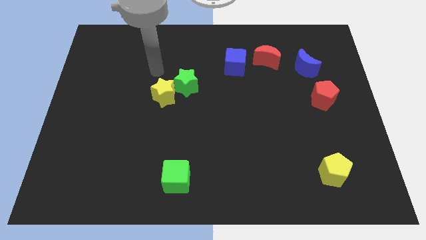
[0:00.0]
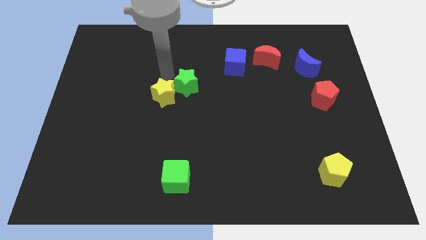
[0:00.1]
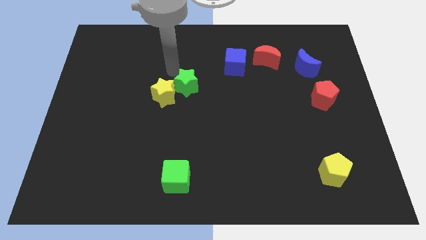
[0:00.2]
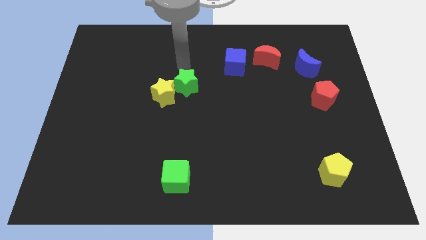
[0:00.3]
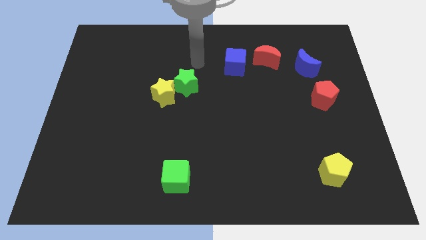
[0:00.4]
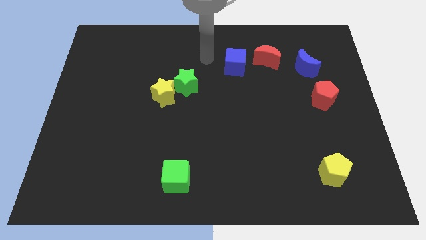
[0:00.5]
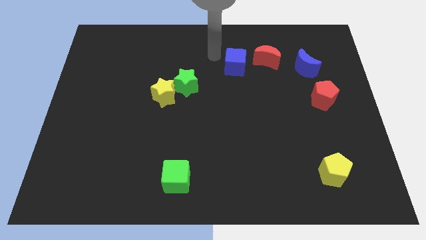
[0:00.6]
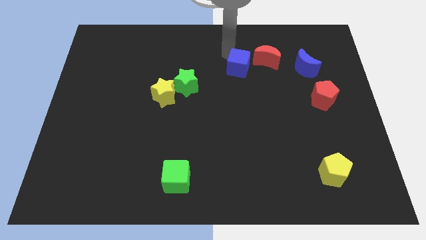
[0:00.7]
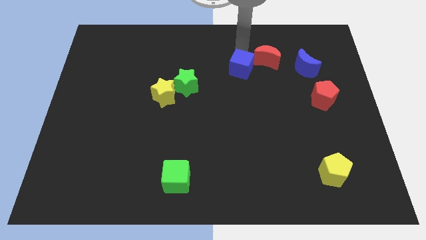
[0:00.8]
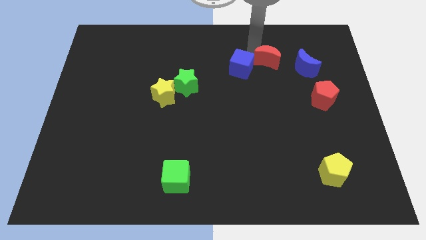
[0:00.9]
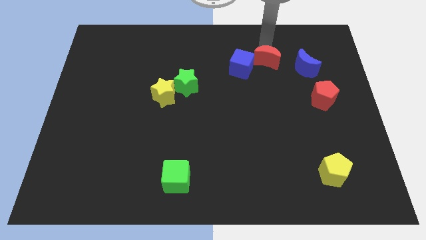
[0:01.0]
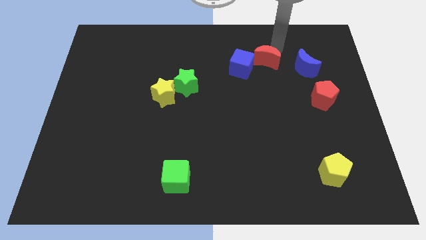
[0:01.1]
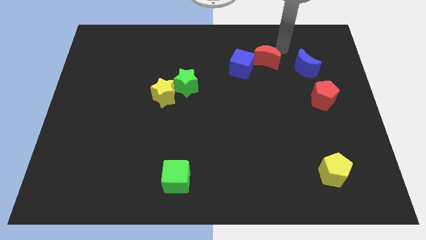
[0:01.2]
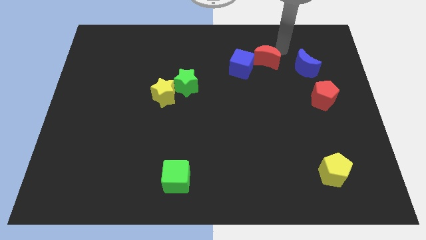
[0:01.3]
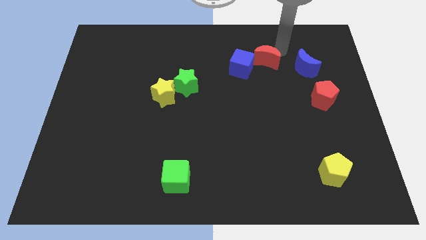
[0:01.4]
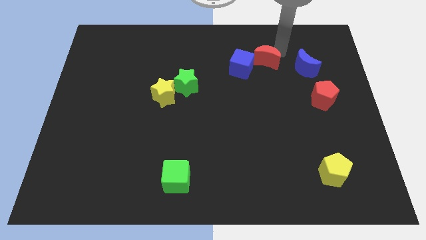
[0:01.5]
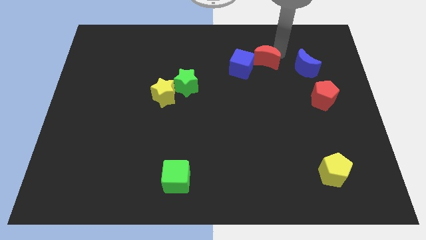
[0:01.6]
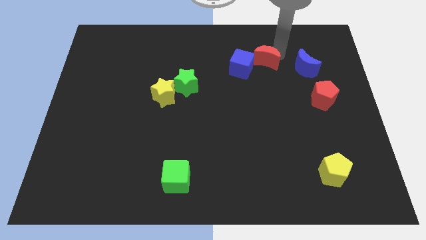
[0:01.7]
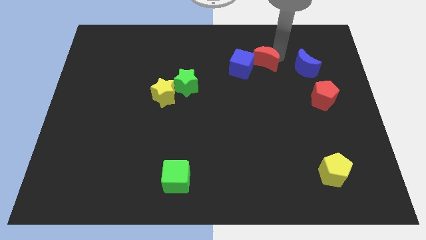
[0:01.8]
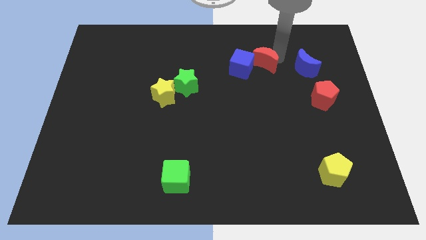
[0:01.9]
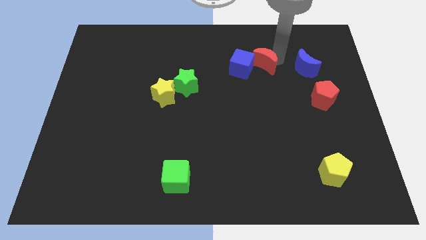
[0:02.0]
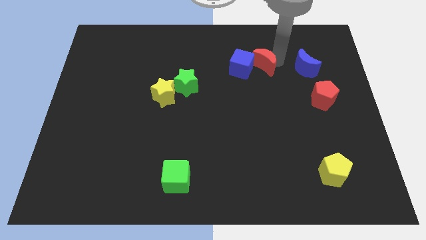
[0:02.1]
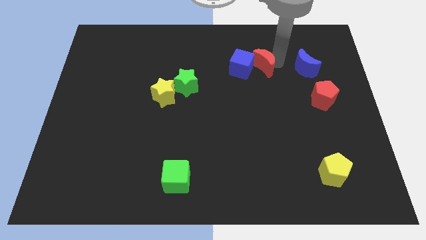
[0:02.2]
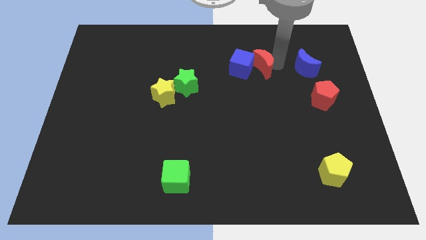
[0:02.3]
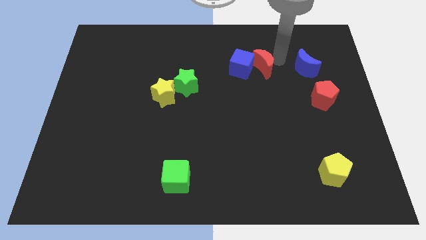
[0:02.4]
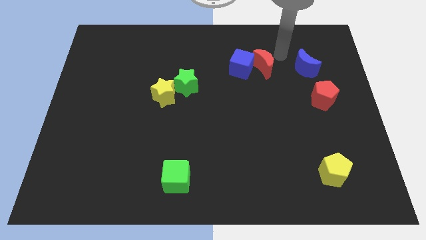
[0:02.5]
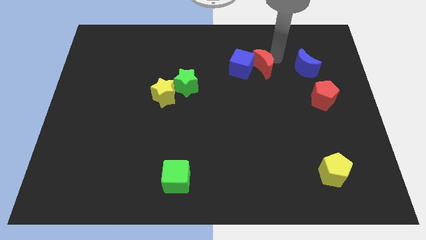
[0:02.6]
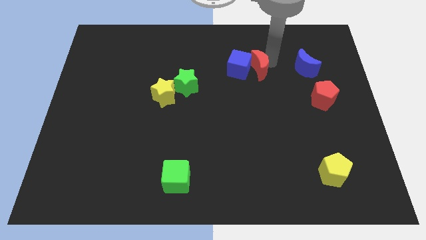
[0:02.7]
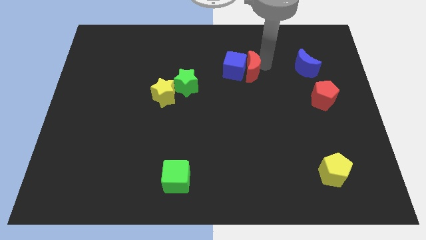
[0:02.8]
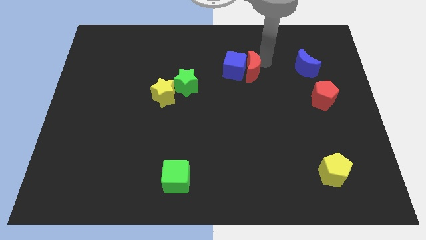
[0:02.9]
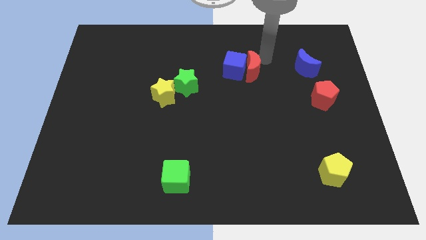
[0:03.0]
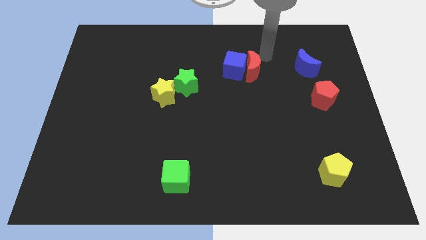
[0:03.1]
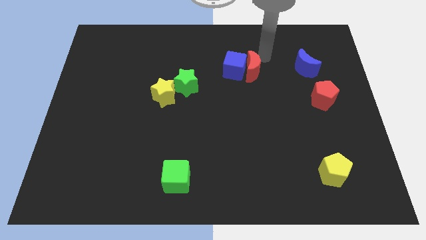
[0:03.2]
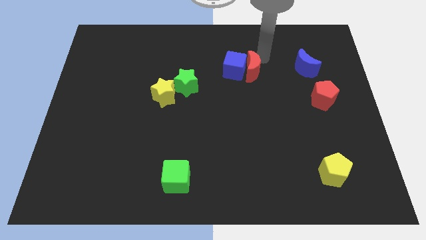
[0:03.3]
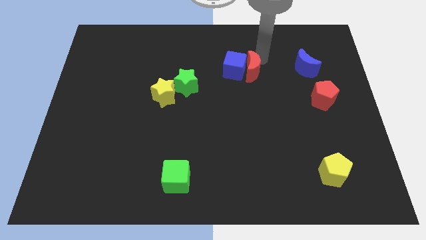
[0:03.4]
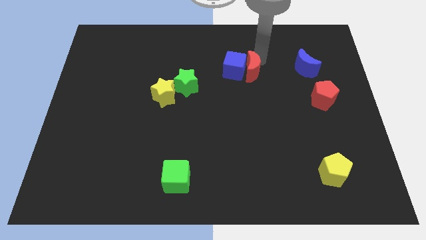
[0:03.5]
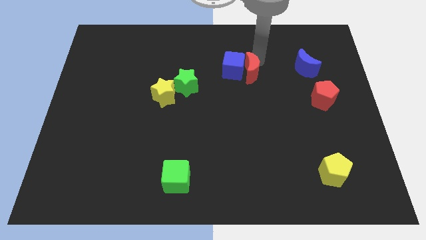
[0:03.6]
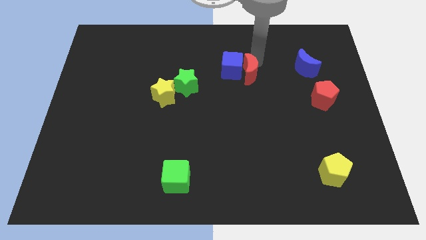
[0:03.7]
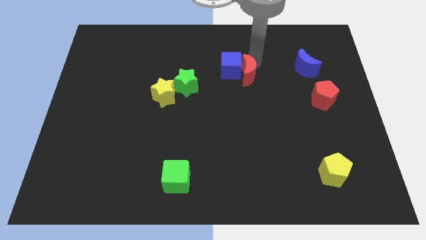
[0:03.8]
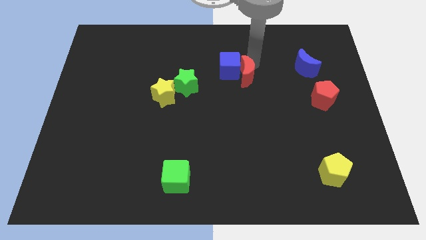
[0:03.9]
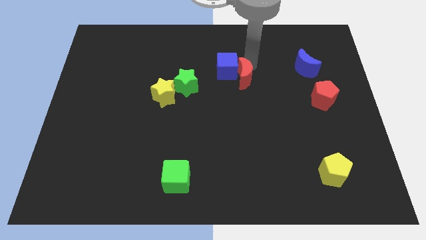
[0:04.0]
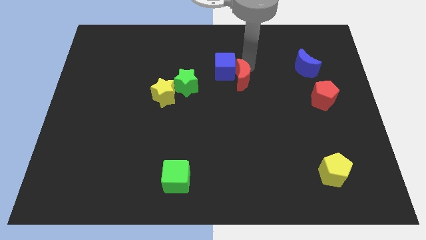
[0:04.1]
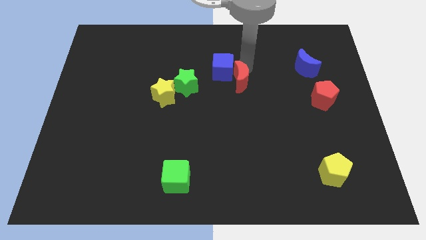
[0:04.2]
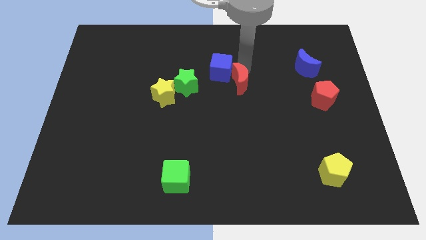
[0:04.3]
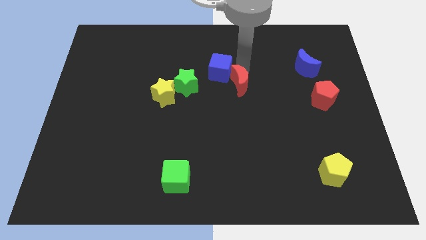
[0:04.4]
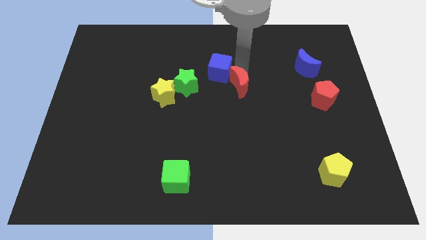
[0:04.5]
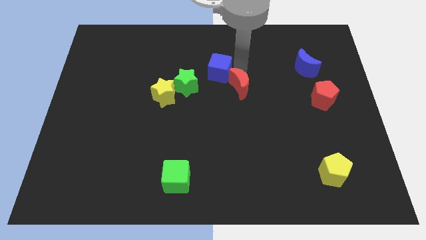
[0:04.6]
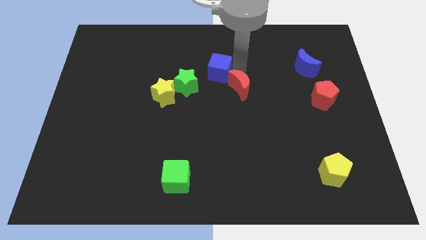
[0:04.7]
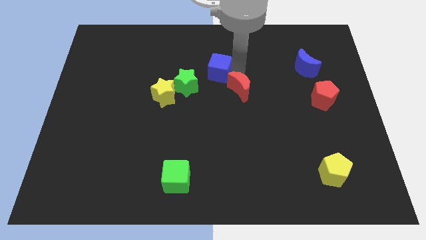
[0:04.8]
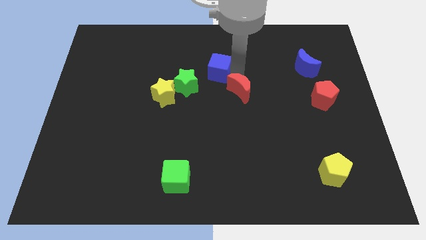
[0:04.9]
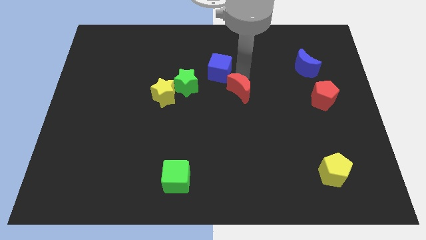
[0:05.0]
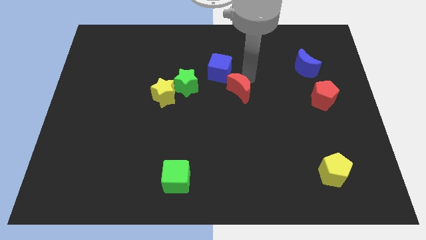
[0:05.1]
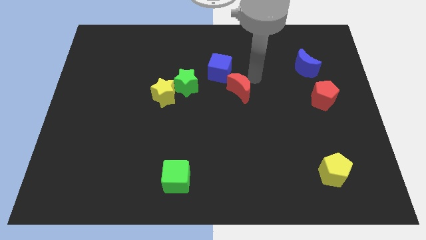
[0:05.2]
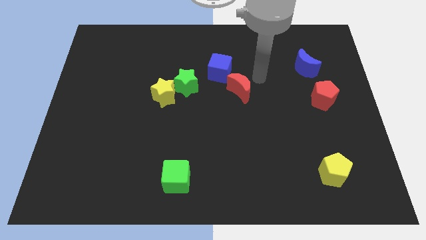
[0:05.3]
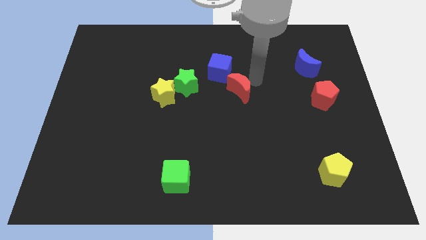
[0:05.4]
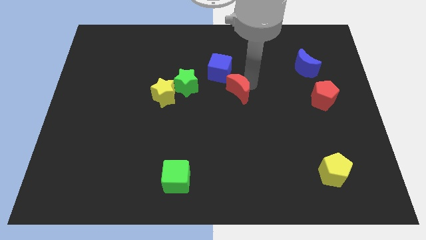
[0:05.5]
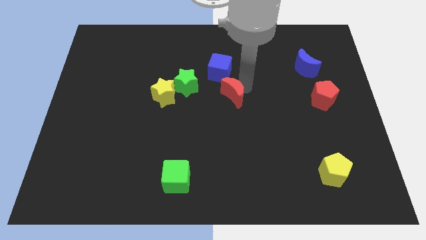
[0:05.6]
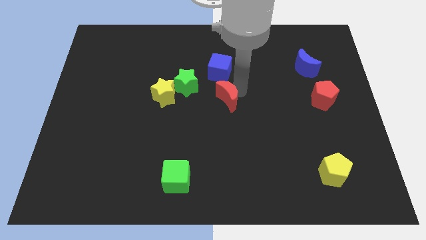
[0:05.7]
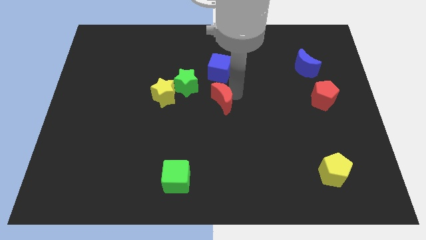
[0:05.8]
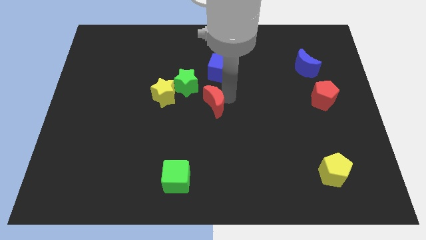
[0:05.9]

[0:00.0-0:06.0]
move the red moon down and left

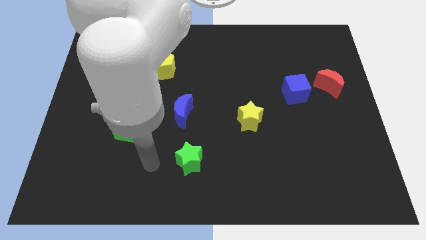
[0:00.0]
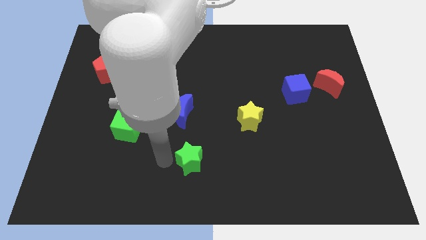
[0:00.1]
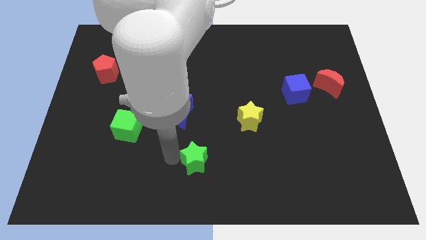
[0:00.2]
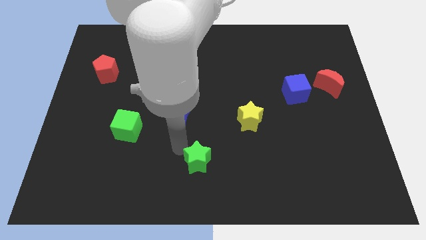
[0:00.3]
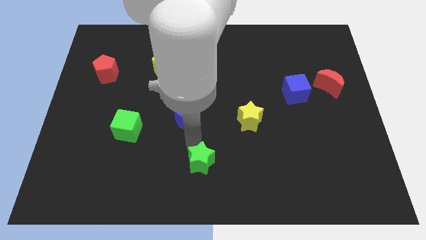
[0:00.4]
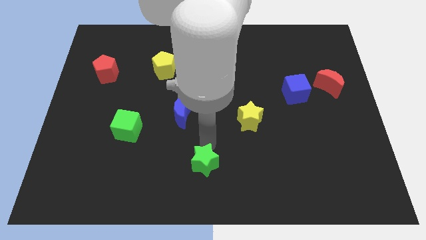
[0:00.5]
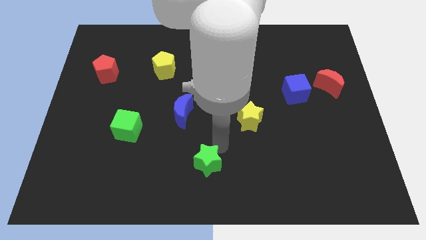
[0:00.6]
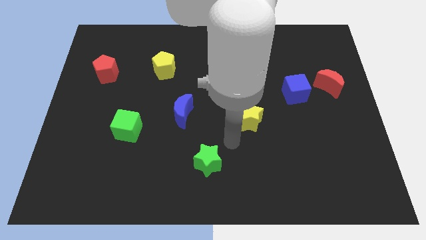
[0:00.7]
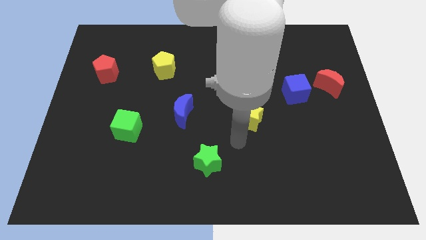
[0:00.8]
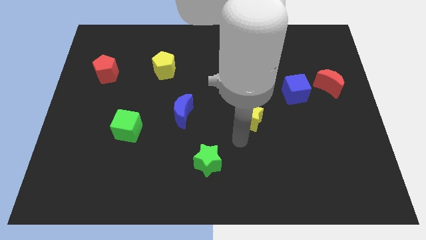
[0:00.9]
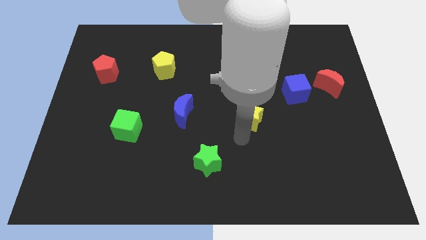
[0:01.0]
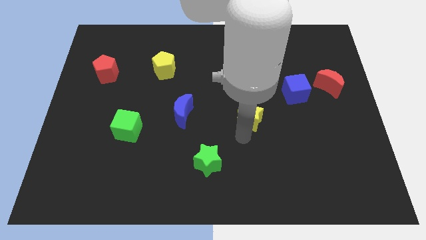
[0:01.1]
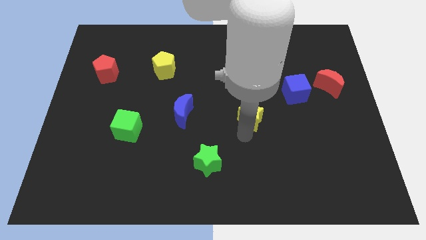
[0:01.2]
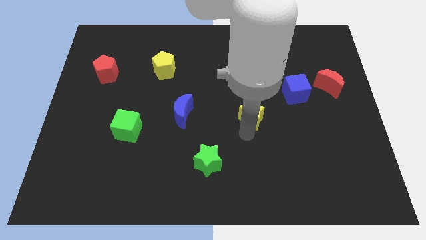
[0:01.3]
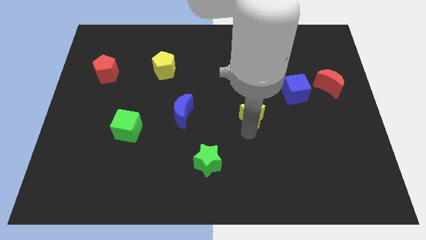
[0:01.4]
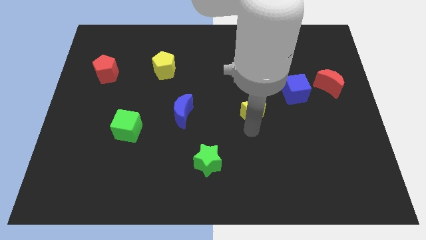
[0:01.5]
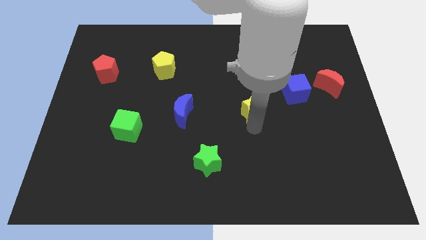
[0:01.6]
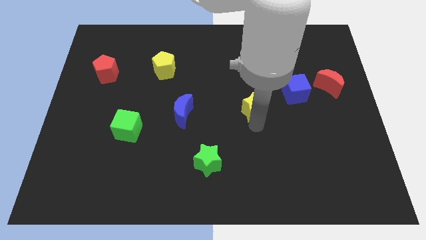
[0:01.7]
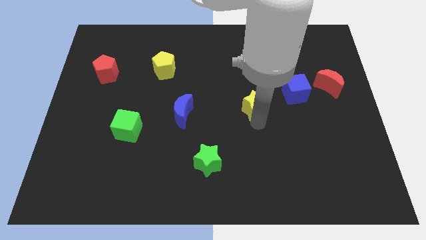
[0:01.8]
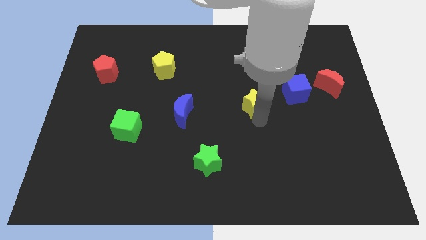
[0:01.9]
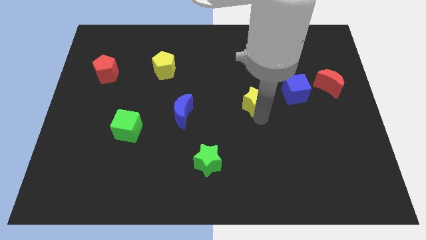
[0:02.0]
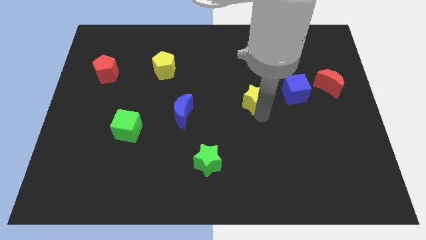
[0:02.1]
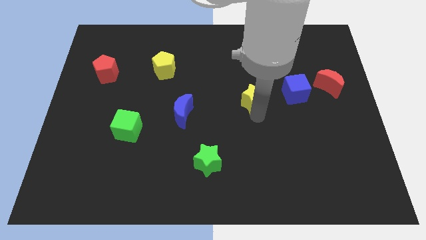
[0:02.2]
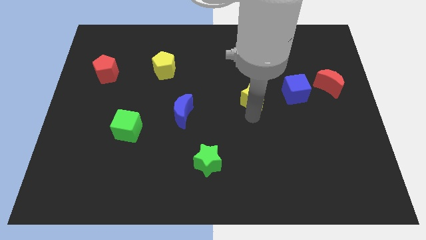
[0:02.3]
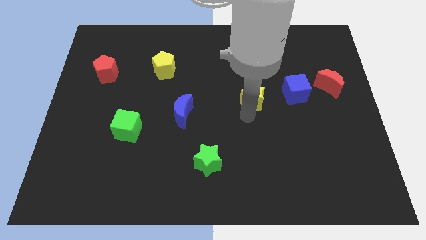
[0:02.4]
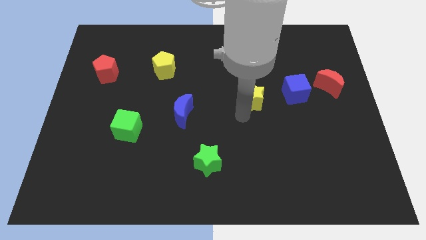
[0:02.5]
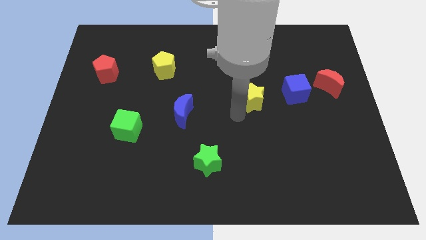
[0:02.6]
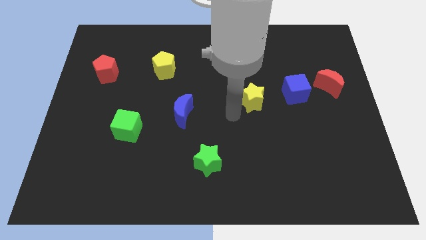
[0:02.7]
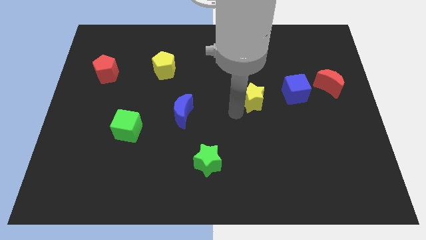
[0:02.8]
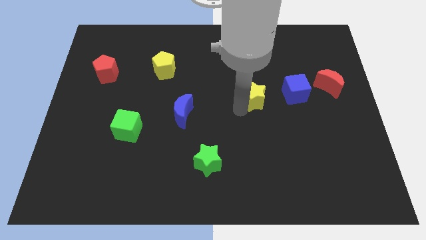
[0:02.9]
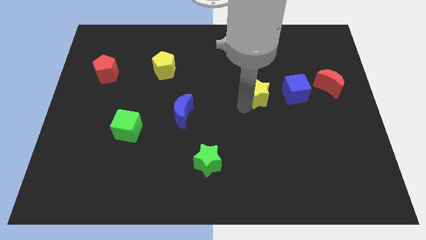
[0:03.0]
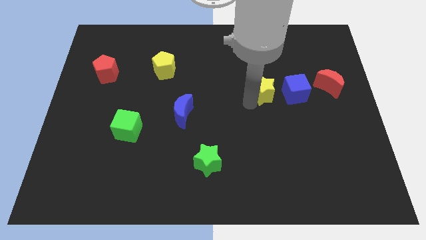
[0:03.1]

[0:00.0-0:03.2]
push the yellow star a little bit diagonally up and to the right
